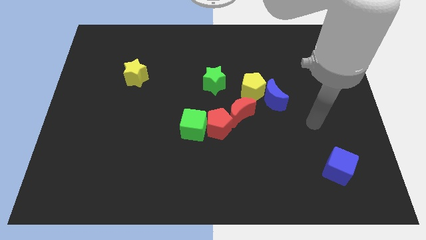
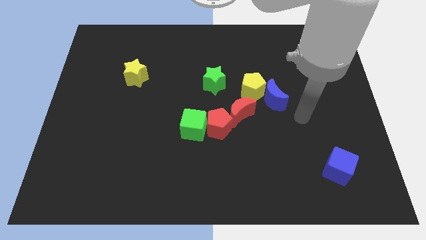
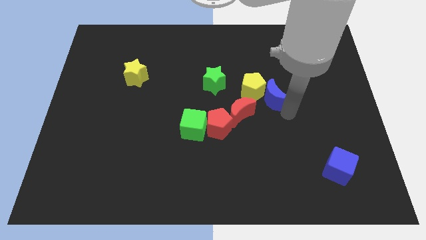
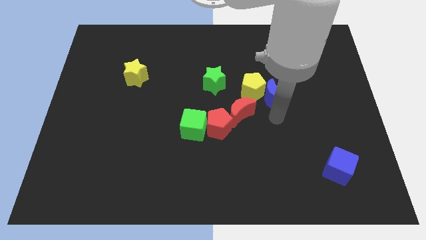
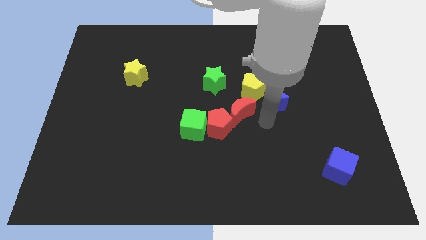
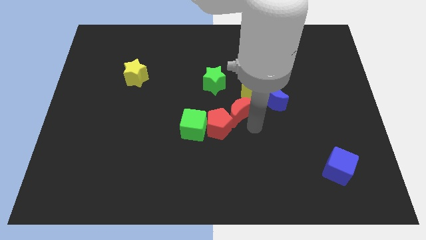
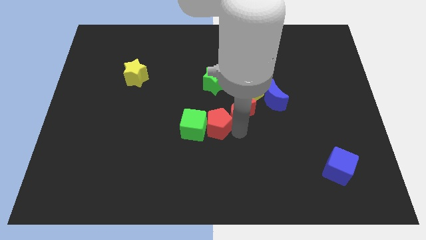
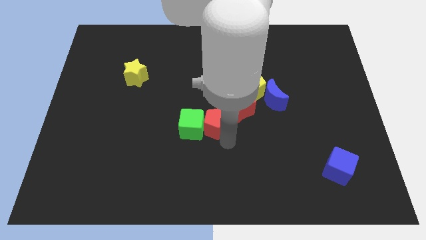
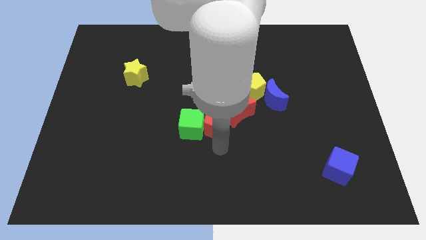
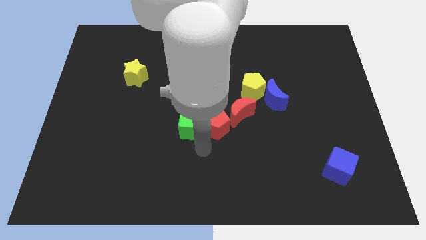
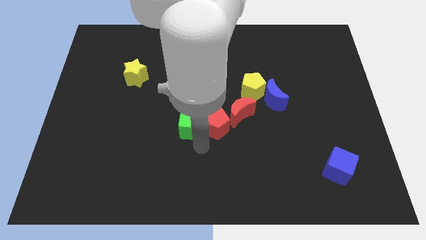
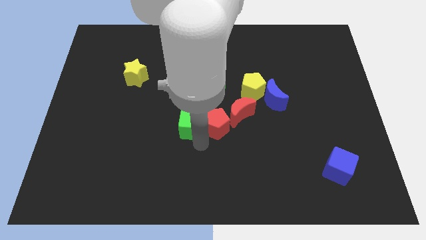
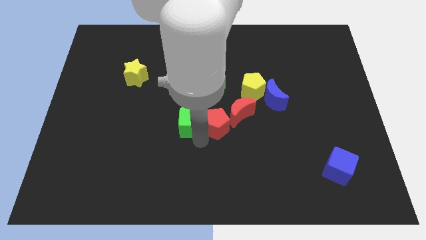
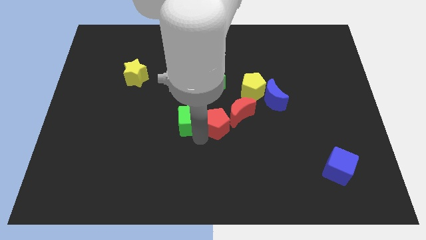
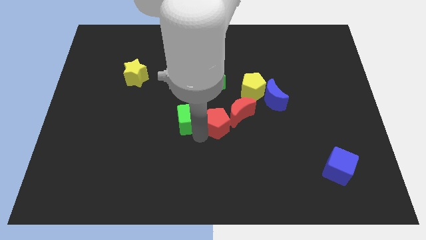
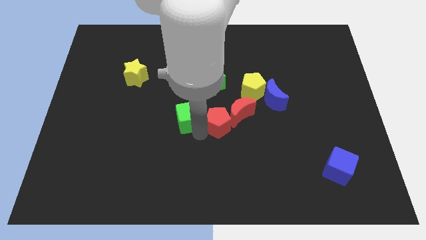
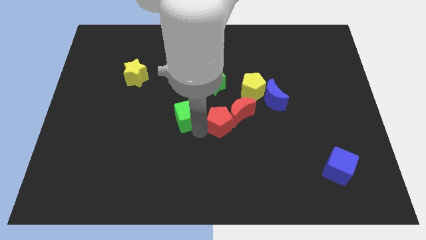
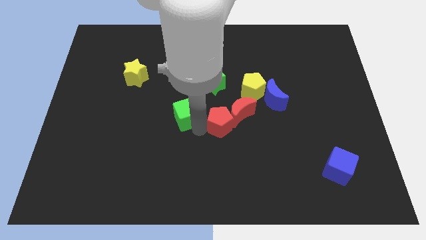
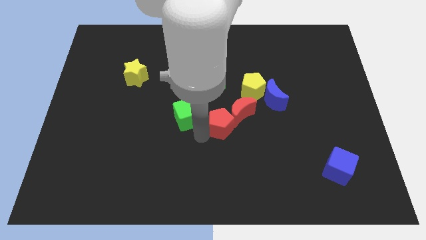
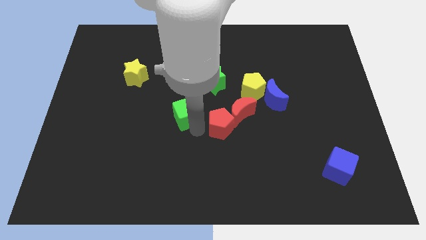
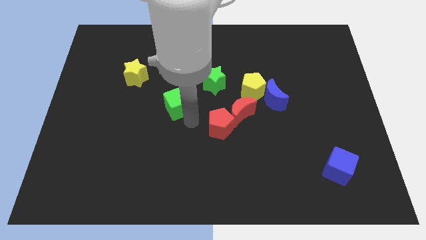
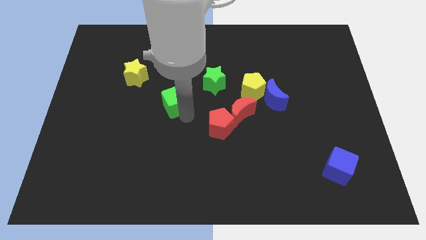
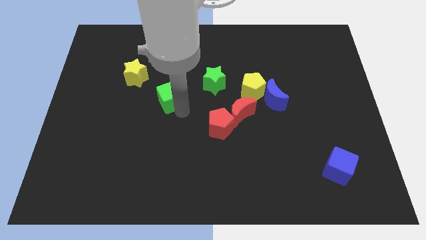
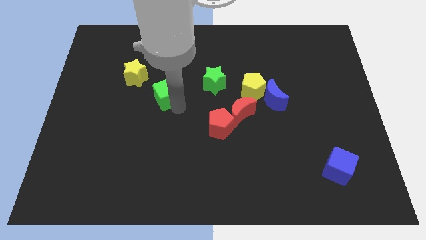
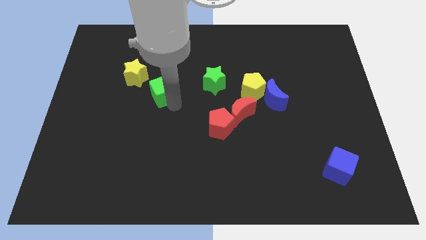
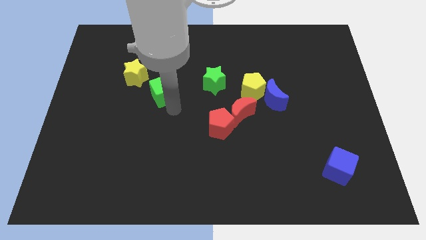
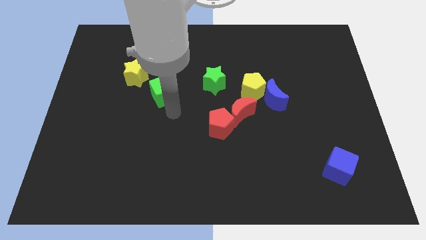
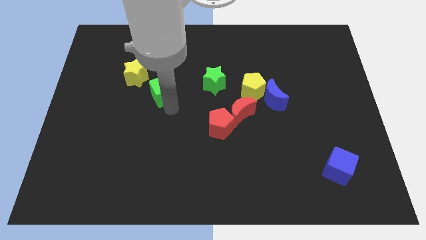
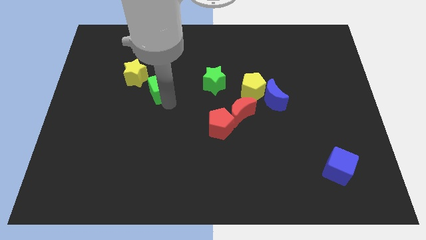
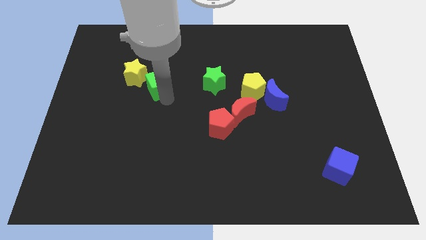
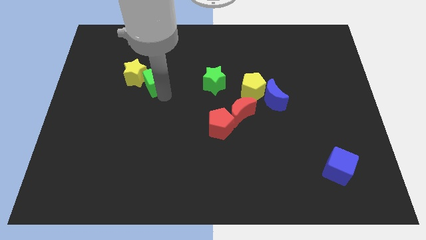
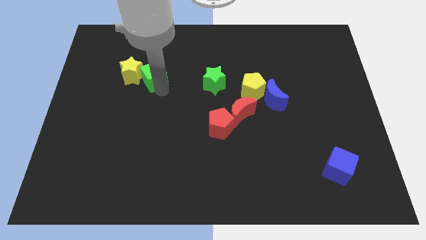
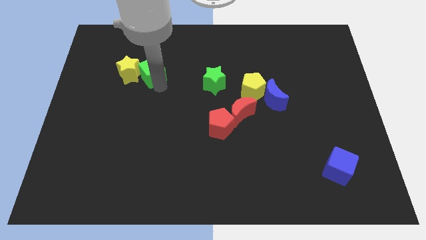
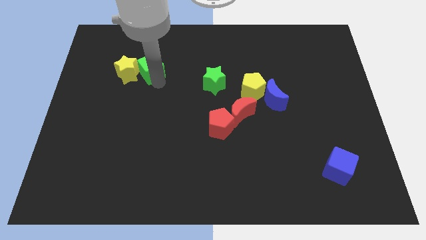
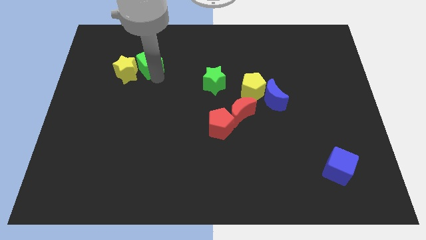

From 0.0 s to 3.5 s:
push the green cube up and then to the left

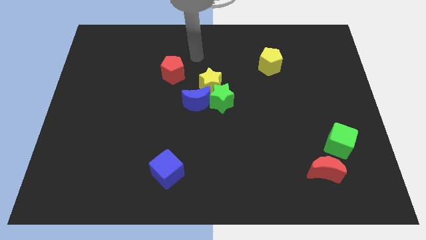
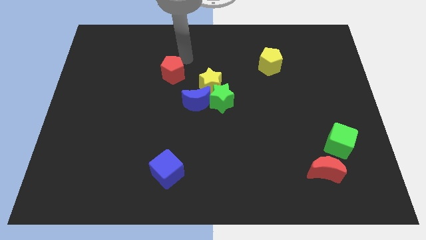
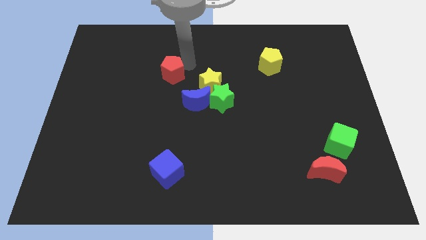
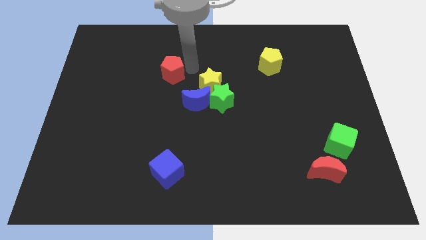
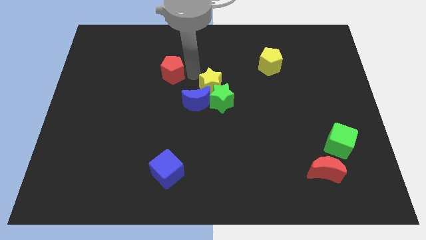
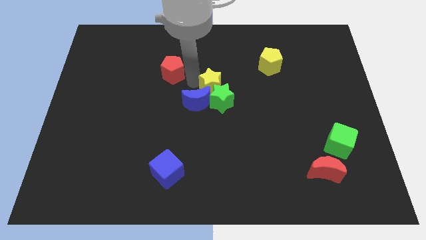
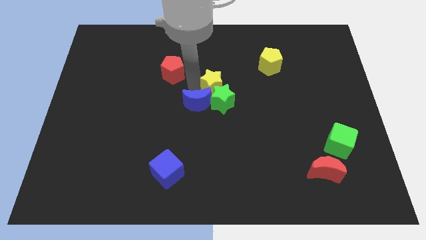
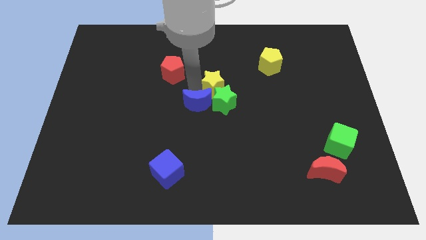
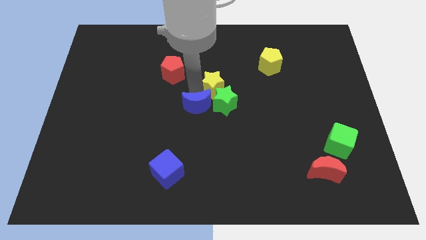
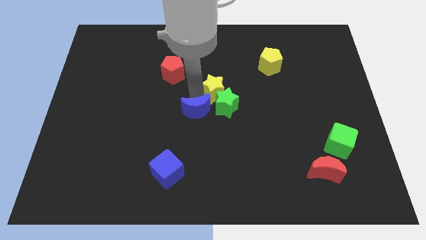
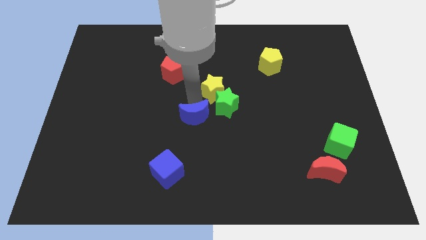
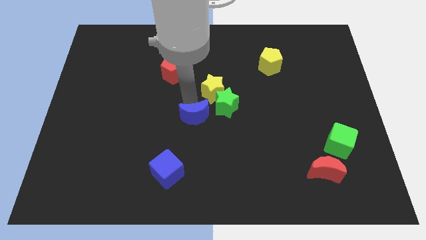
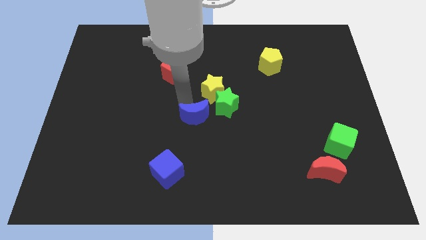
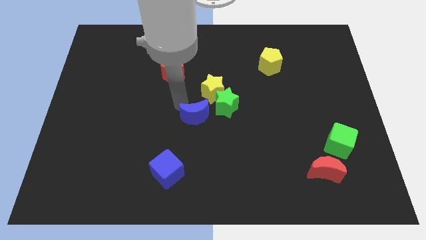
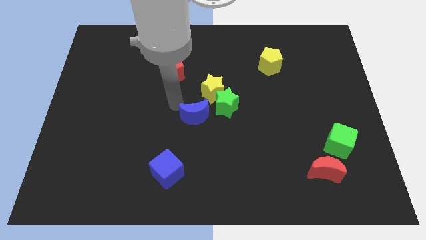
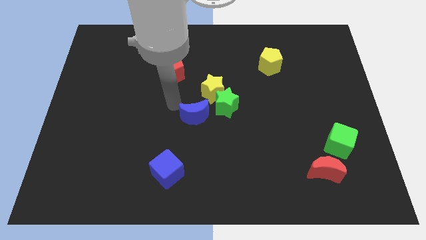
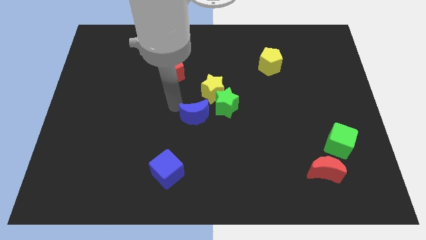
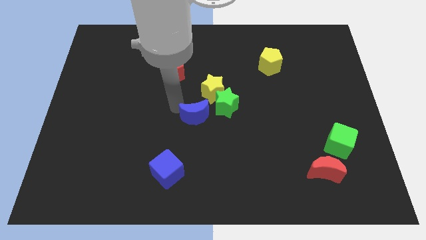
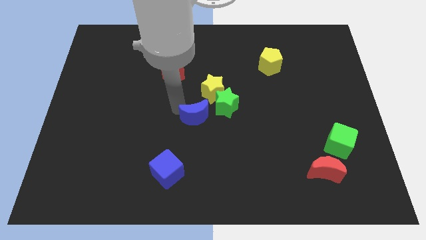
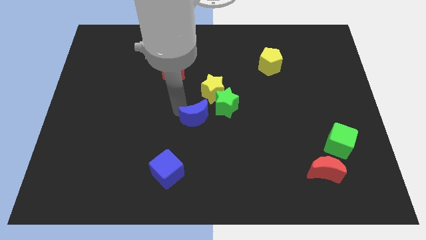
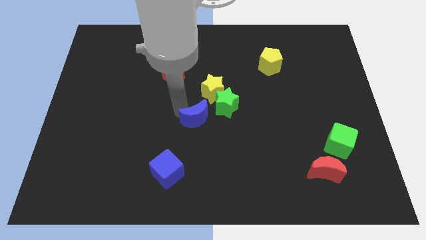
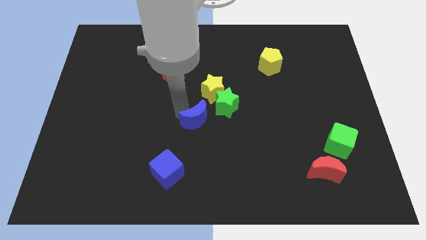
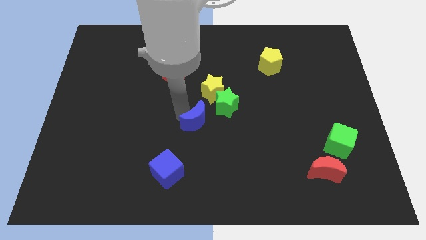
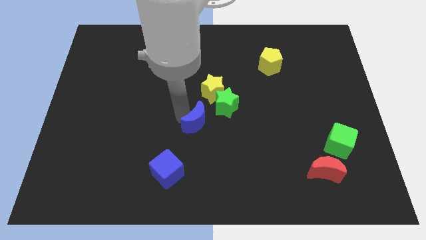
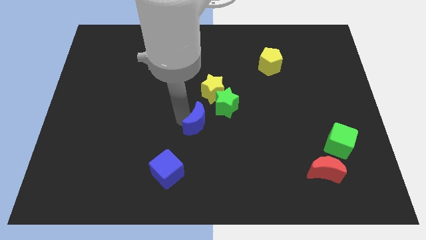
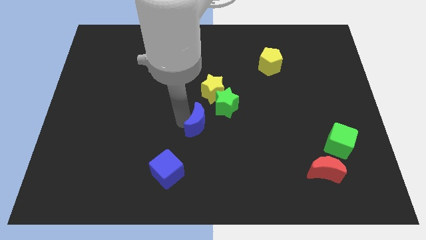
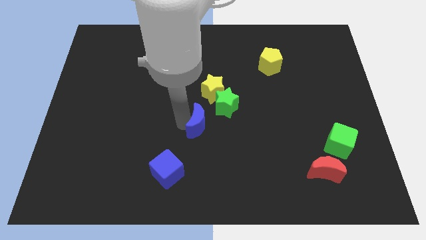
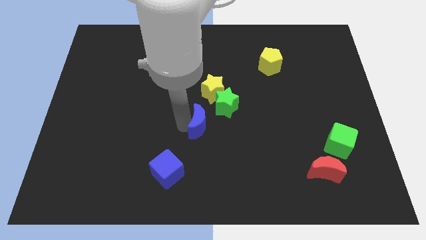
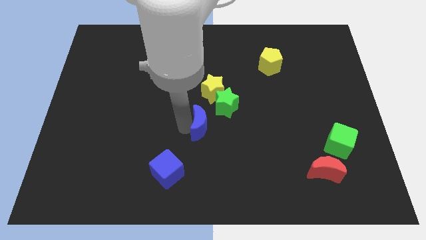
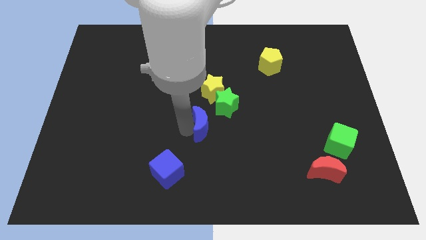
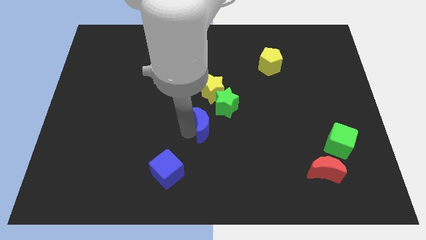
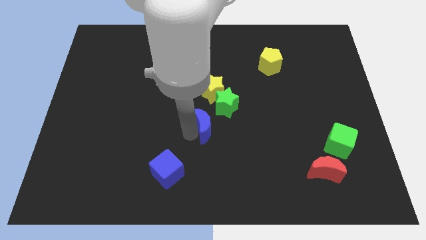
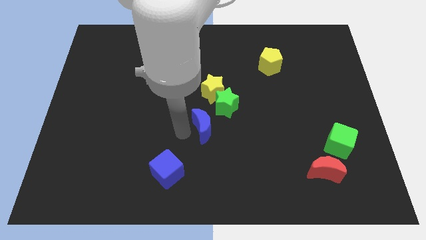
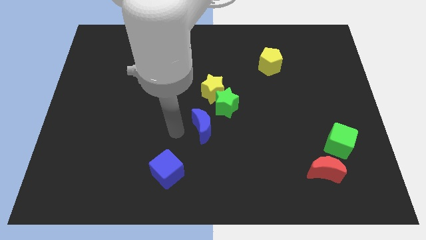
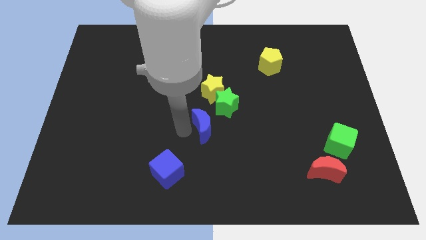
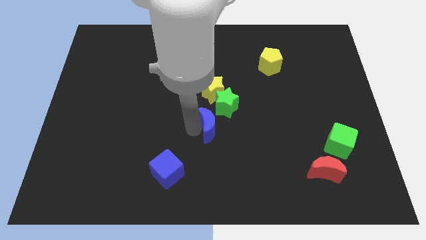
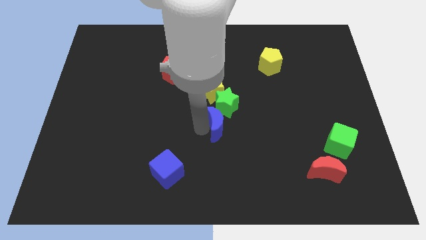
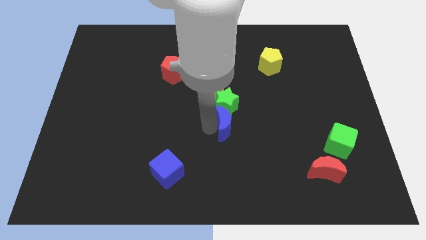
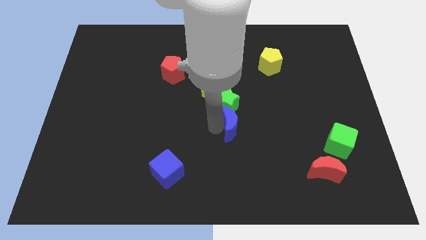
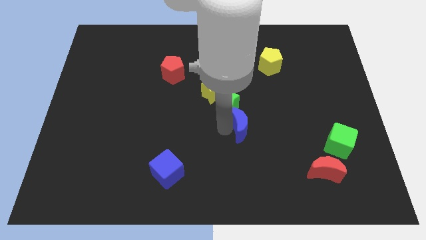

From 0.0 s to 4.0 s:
slightly push the blue moon right

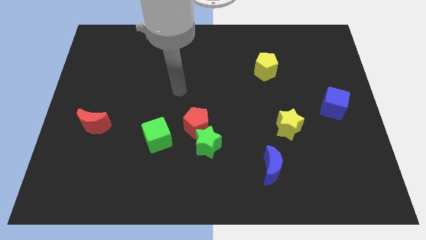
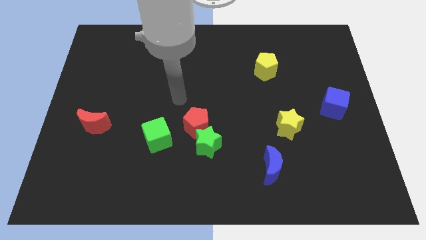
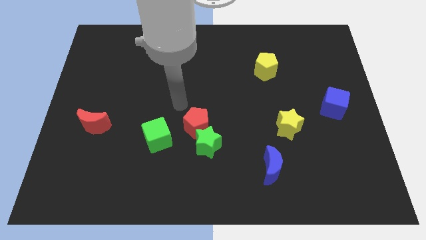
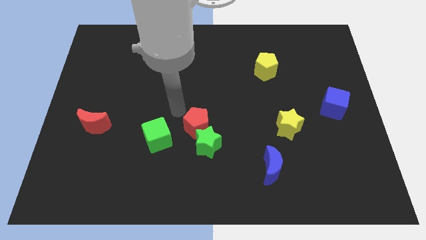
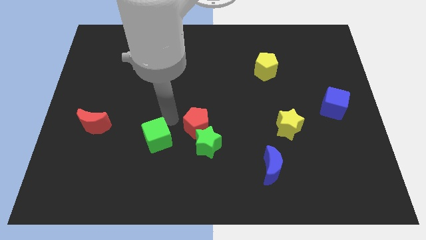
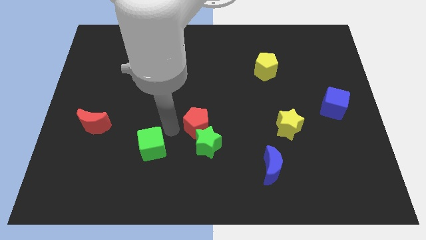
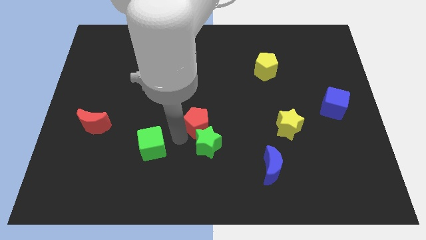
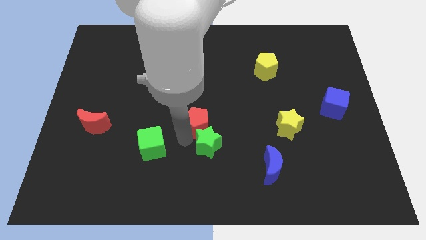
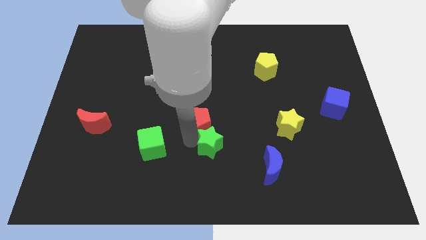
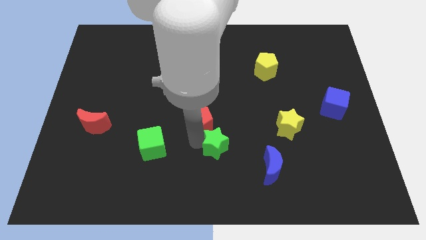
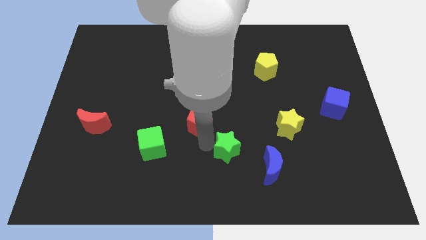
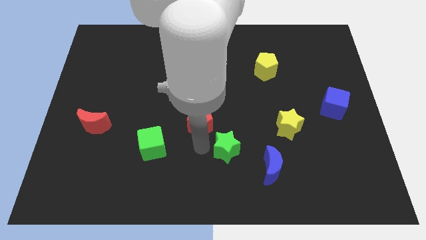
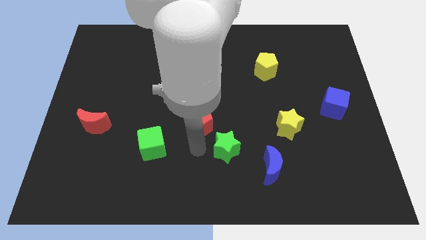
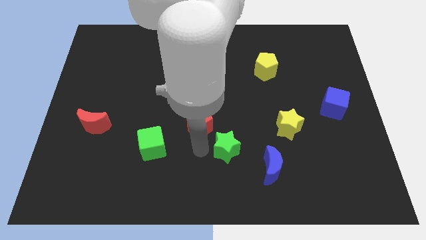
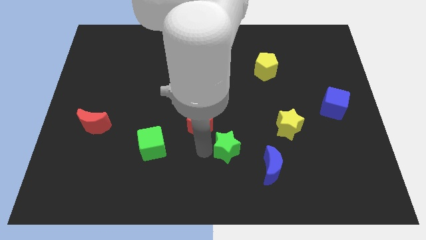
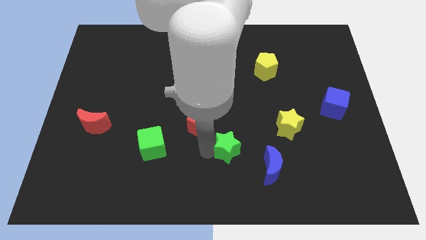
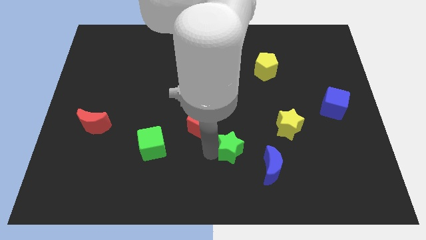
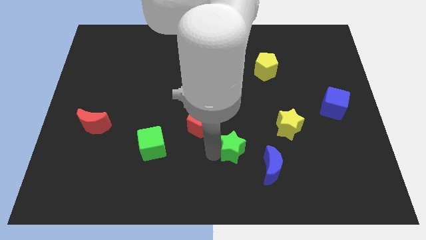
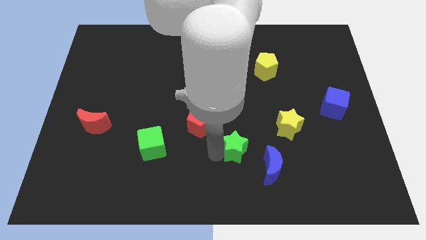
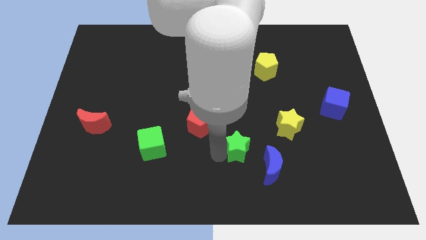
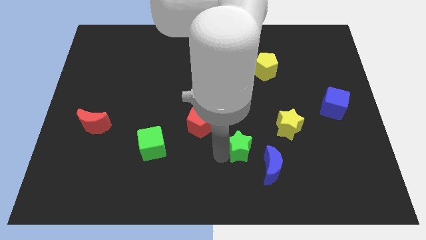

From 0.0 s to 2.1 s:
slightly move the green star to the right
